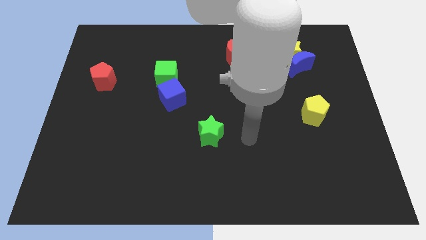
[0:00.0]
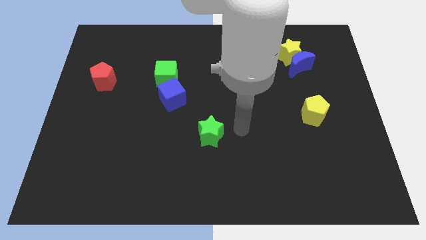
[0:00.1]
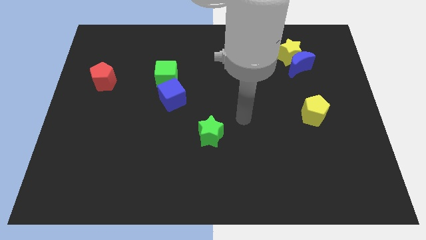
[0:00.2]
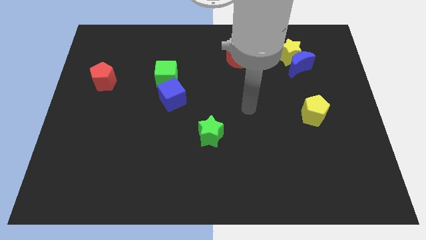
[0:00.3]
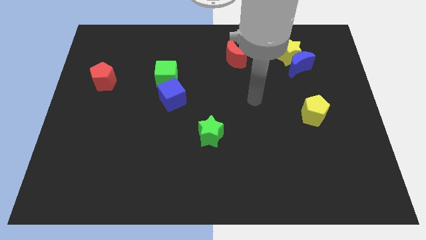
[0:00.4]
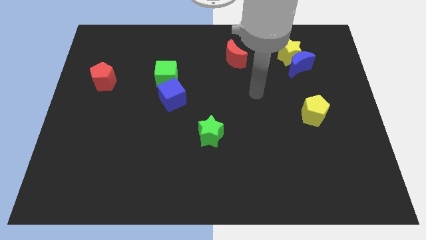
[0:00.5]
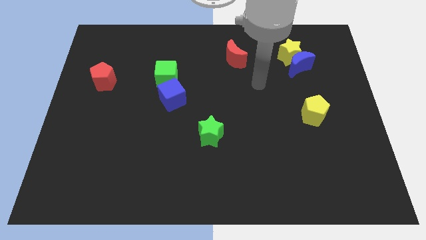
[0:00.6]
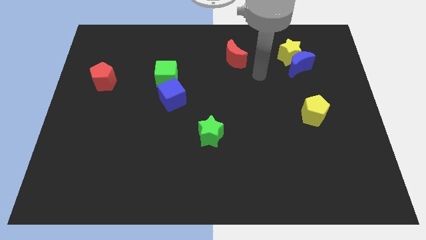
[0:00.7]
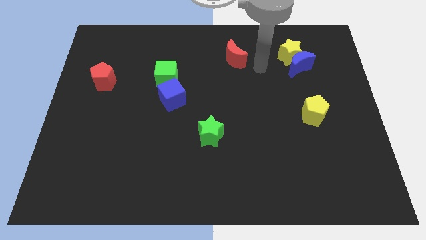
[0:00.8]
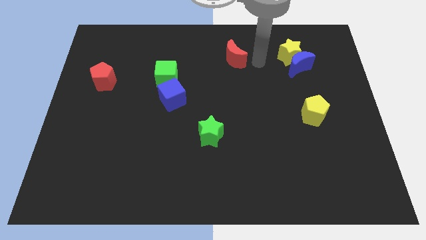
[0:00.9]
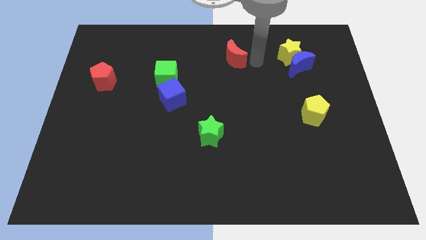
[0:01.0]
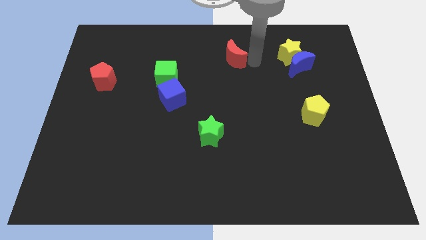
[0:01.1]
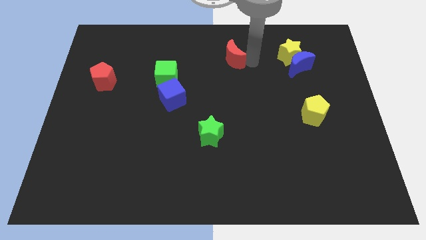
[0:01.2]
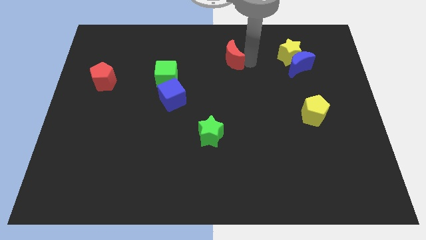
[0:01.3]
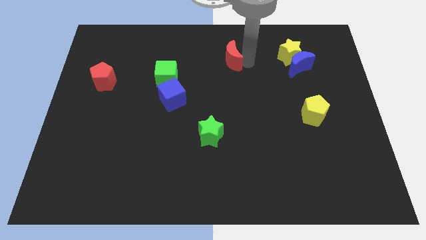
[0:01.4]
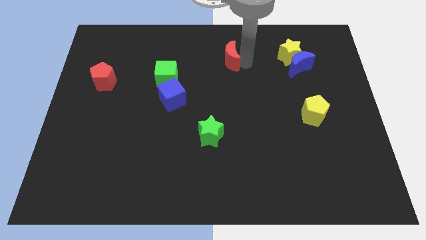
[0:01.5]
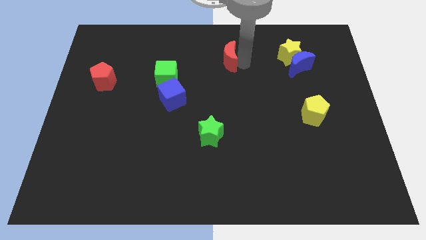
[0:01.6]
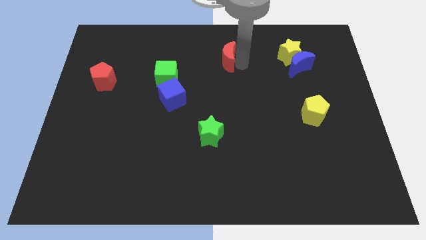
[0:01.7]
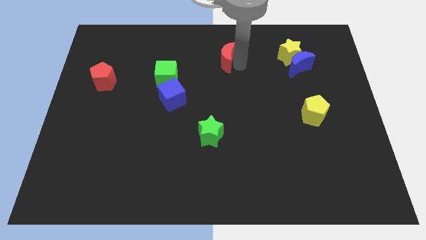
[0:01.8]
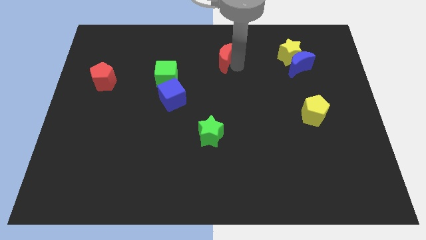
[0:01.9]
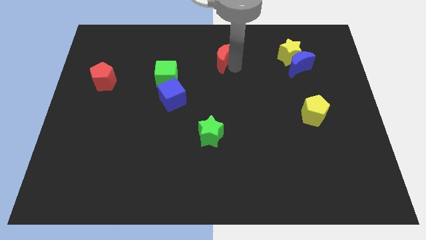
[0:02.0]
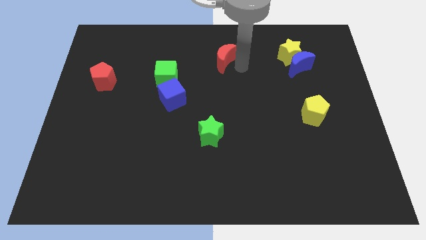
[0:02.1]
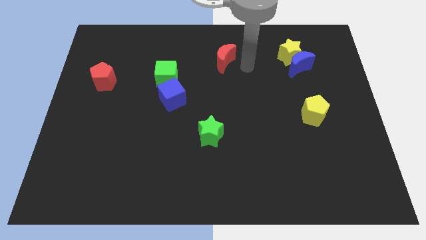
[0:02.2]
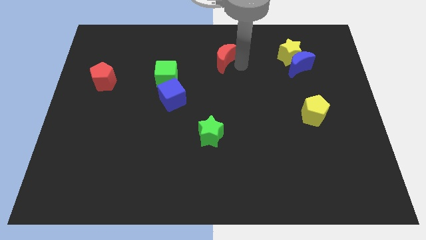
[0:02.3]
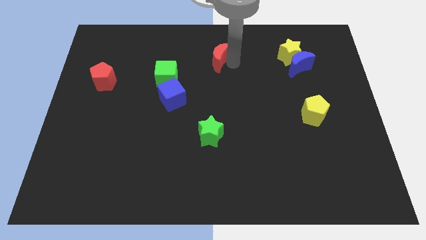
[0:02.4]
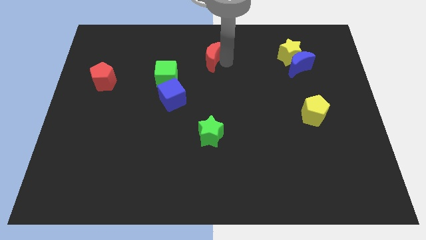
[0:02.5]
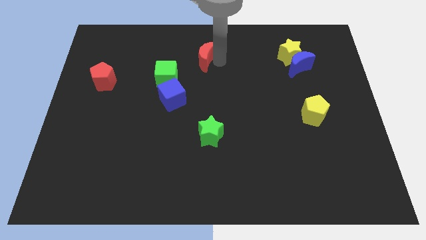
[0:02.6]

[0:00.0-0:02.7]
move the red moon left somewhat

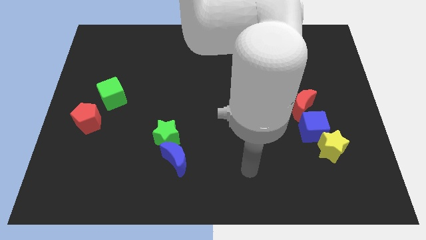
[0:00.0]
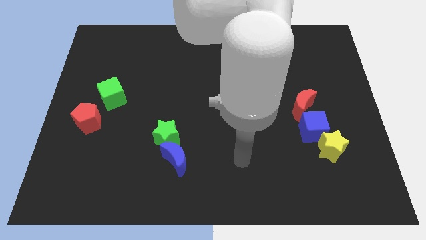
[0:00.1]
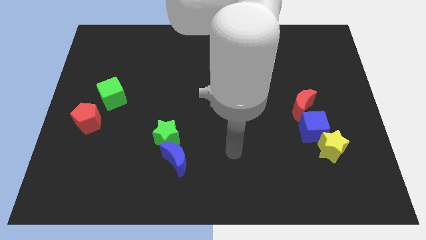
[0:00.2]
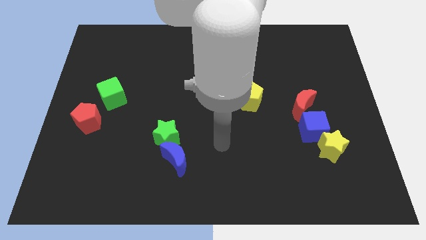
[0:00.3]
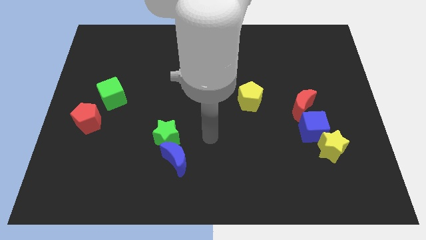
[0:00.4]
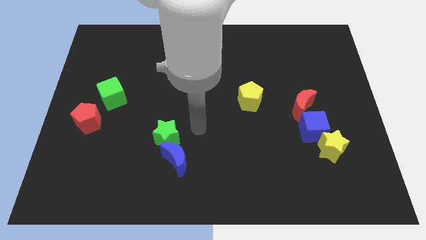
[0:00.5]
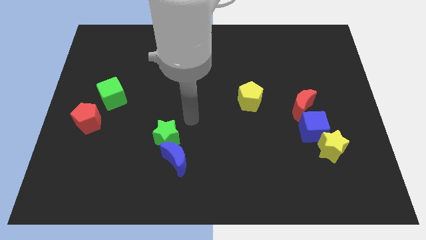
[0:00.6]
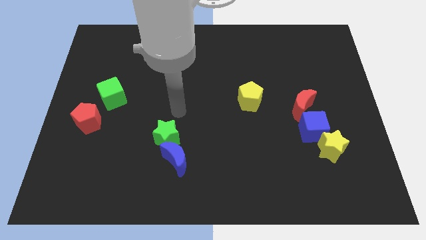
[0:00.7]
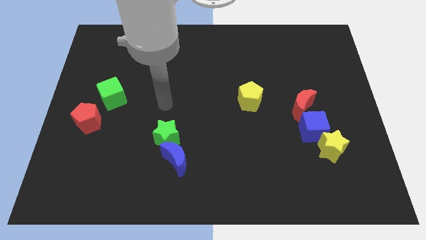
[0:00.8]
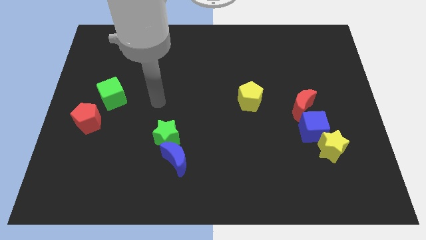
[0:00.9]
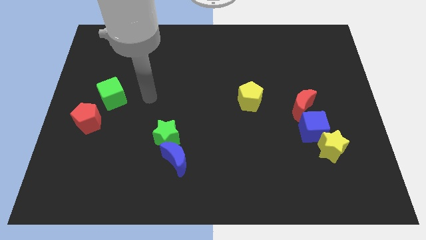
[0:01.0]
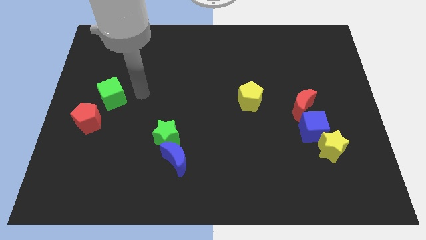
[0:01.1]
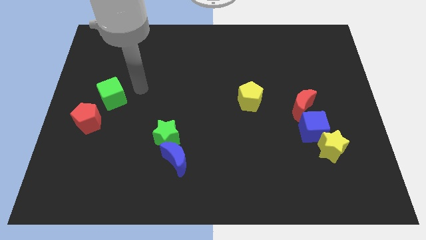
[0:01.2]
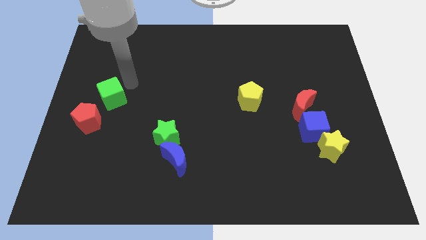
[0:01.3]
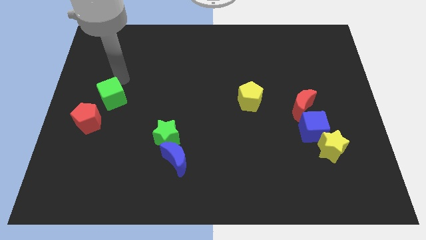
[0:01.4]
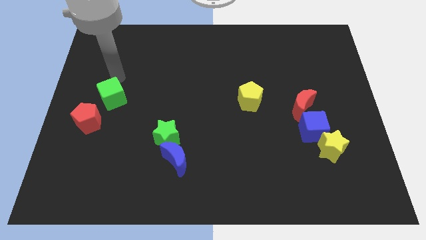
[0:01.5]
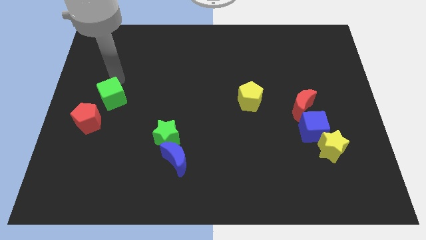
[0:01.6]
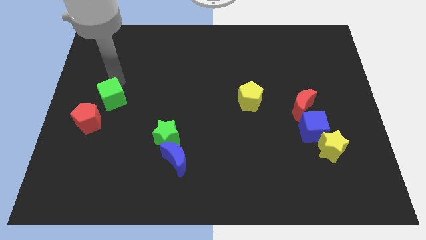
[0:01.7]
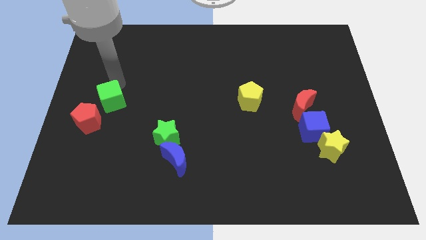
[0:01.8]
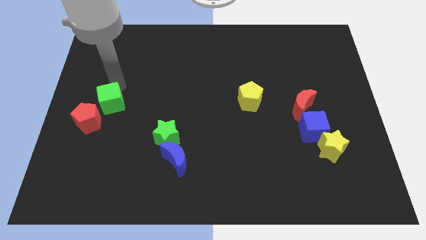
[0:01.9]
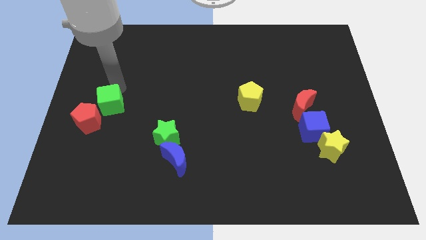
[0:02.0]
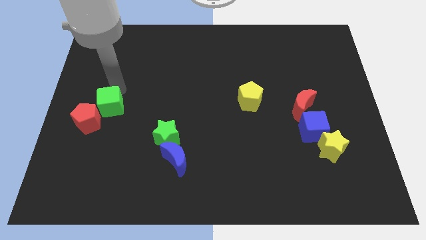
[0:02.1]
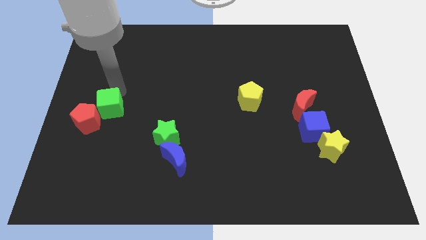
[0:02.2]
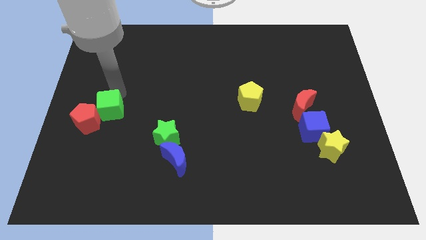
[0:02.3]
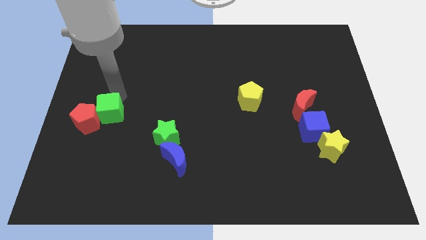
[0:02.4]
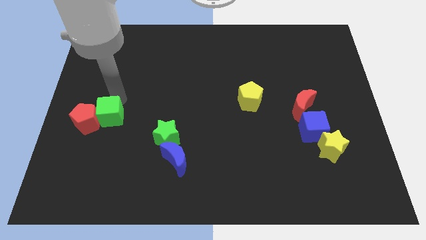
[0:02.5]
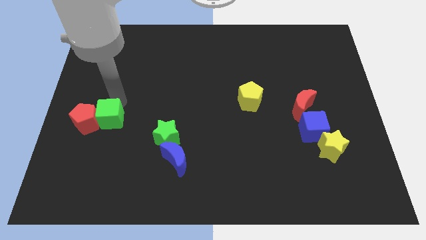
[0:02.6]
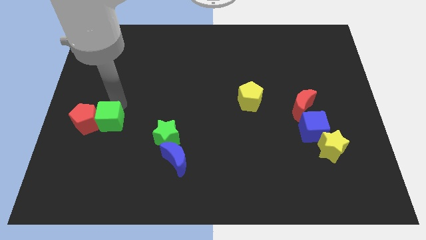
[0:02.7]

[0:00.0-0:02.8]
slightly push the green cube downwards

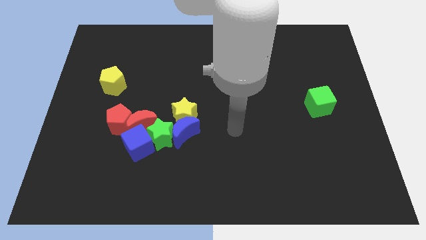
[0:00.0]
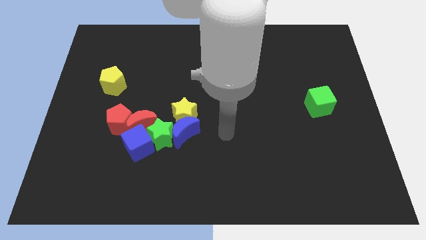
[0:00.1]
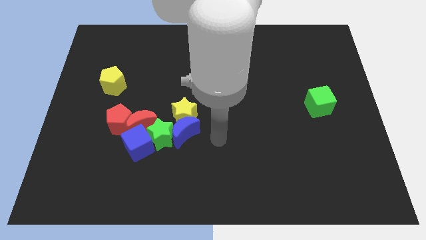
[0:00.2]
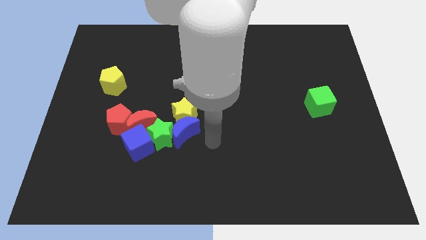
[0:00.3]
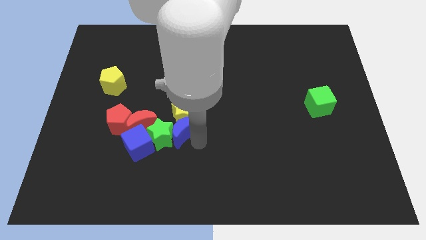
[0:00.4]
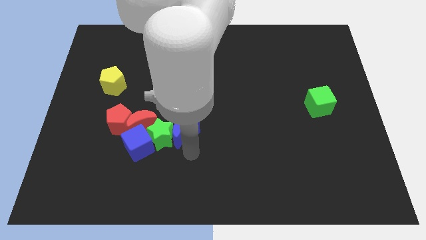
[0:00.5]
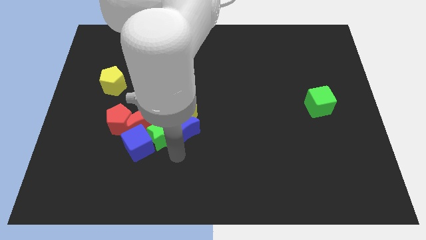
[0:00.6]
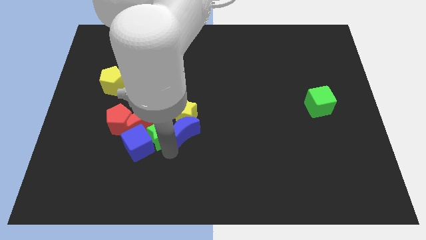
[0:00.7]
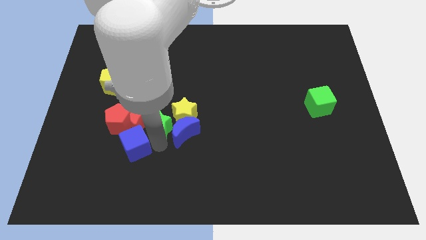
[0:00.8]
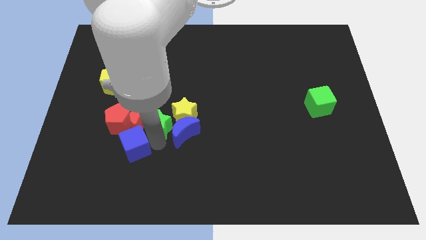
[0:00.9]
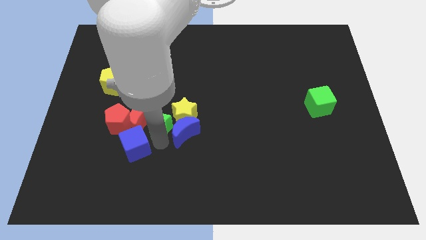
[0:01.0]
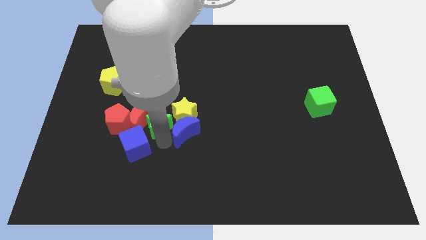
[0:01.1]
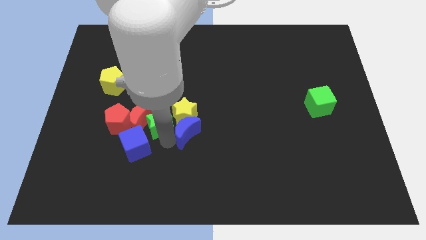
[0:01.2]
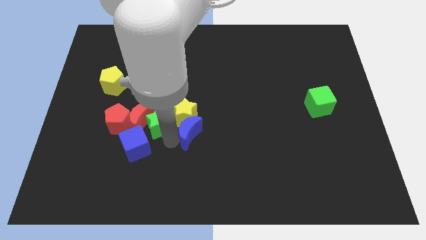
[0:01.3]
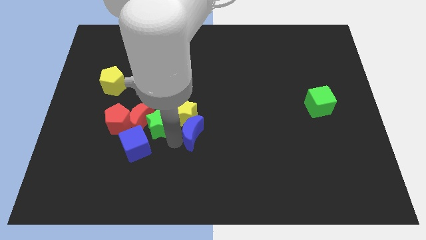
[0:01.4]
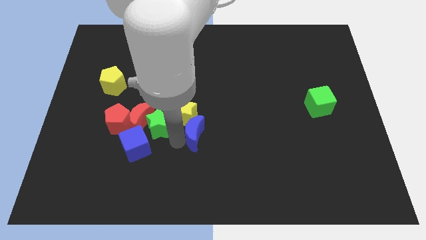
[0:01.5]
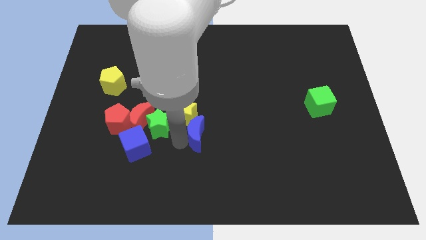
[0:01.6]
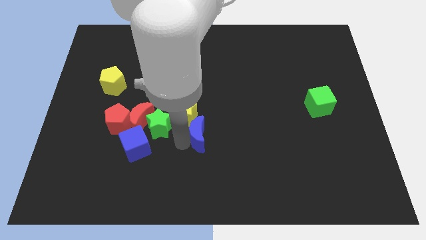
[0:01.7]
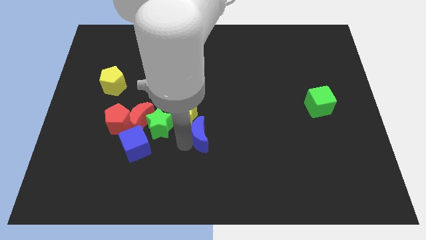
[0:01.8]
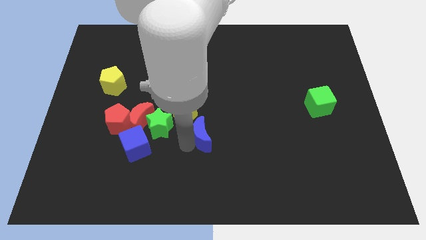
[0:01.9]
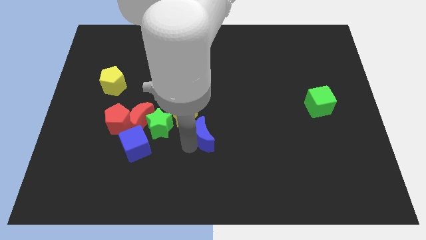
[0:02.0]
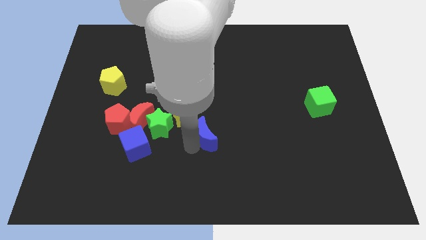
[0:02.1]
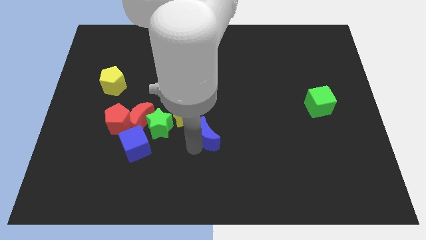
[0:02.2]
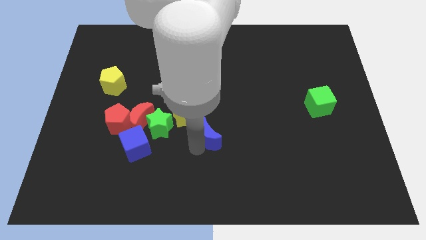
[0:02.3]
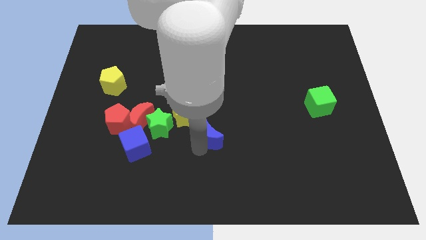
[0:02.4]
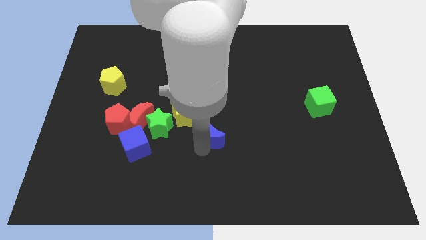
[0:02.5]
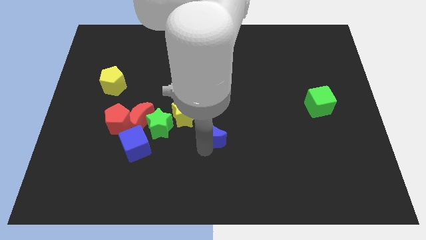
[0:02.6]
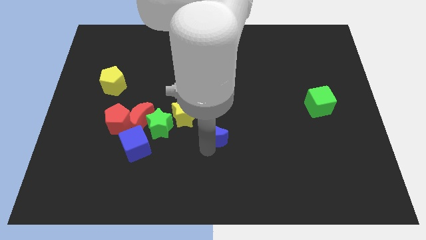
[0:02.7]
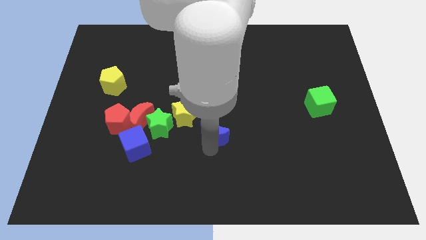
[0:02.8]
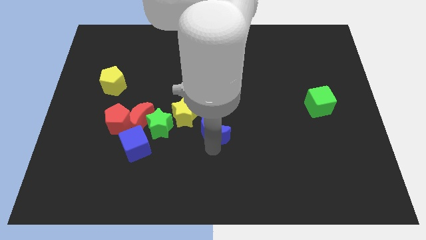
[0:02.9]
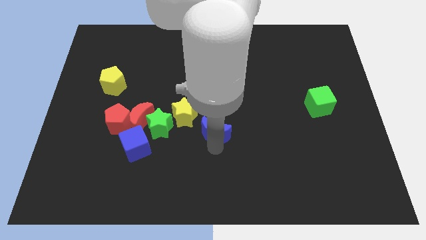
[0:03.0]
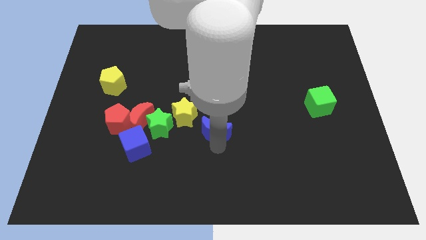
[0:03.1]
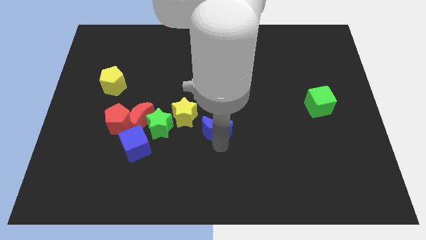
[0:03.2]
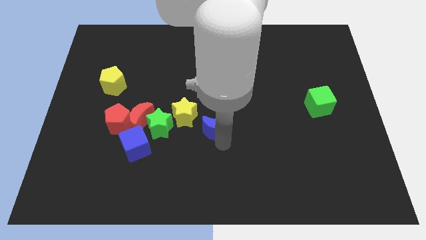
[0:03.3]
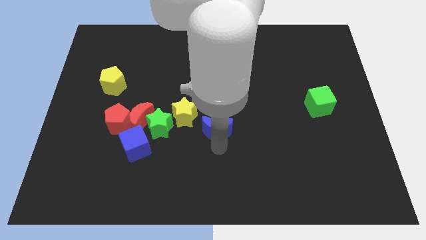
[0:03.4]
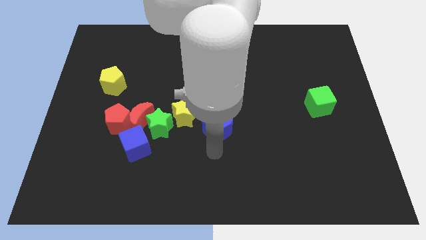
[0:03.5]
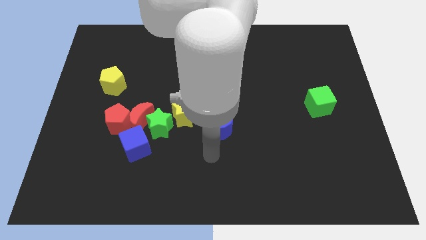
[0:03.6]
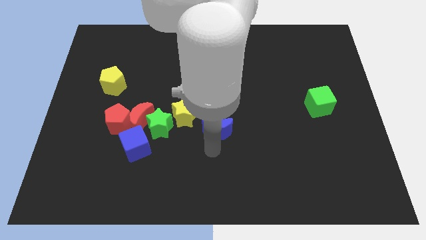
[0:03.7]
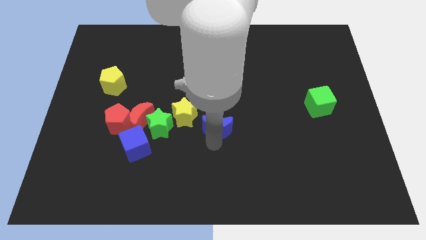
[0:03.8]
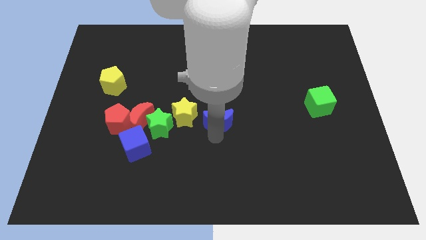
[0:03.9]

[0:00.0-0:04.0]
slightly move the blue moon upwards and right
